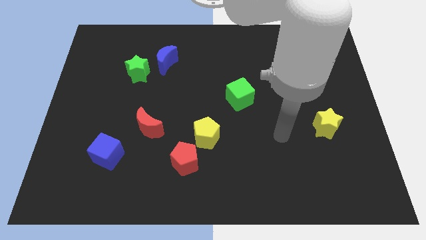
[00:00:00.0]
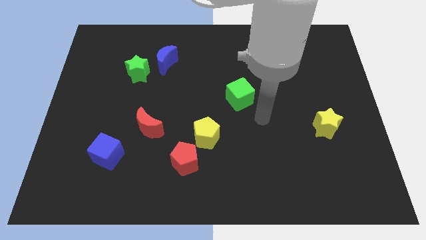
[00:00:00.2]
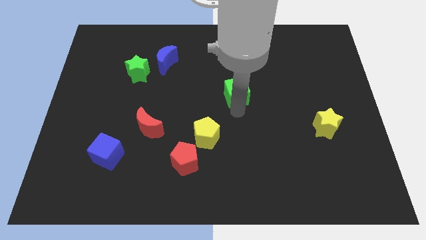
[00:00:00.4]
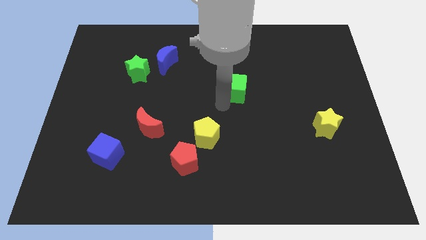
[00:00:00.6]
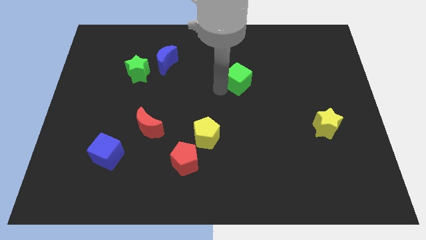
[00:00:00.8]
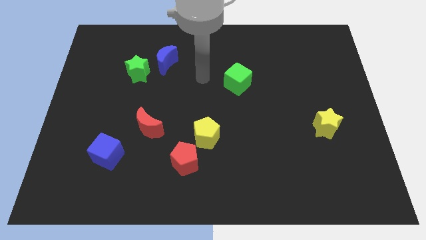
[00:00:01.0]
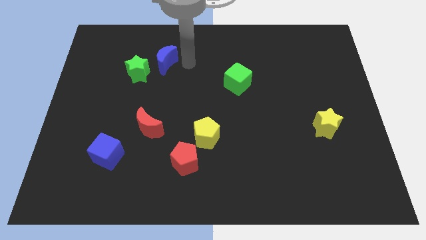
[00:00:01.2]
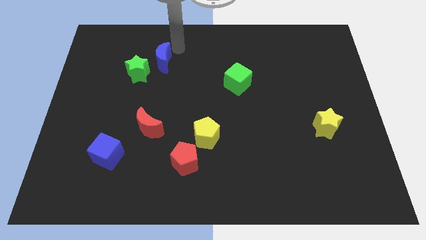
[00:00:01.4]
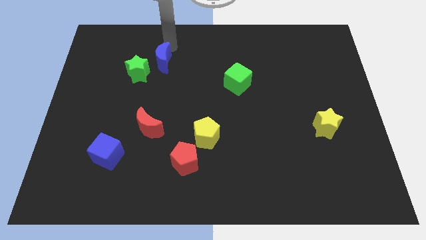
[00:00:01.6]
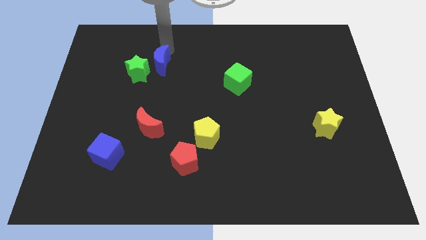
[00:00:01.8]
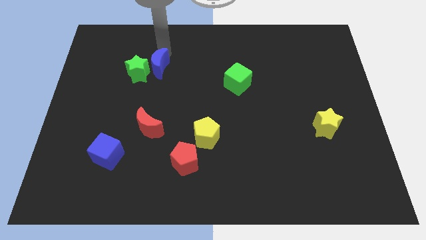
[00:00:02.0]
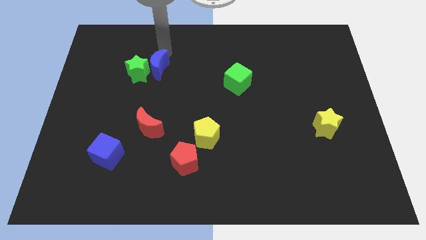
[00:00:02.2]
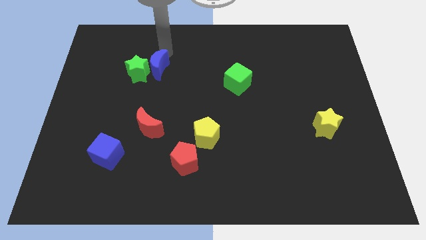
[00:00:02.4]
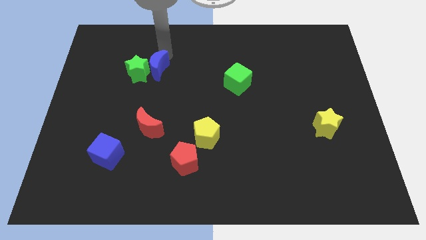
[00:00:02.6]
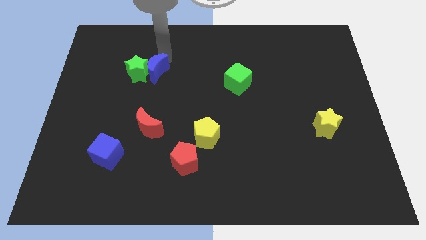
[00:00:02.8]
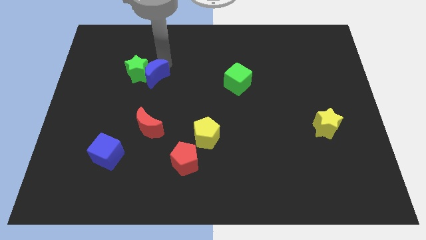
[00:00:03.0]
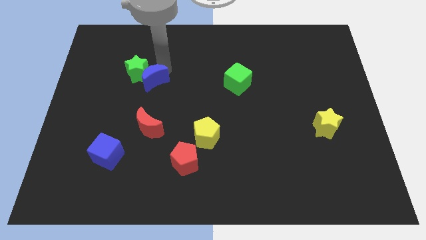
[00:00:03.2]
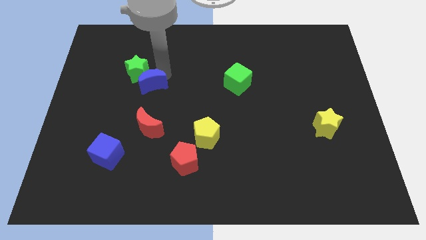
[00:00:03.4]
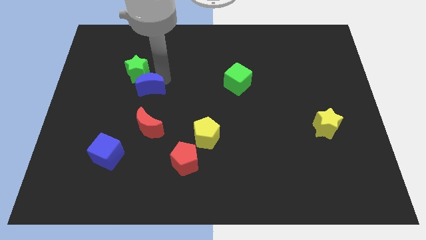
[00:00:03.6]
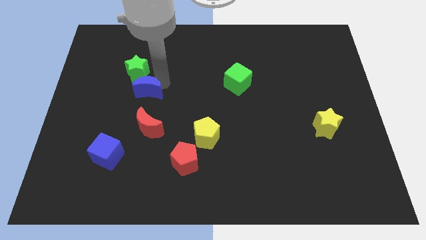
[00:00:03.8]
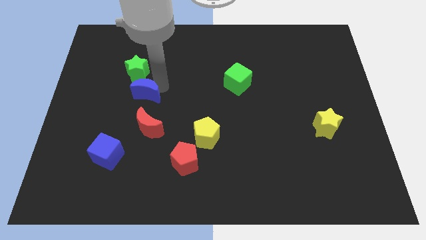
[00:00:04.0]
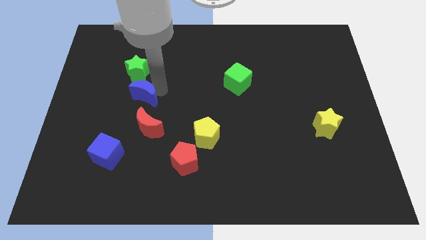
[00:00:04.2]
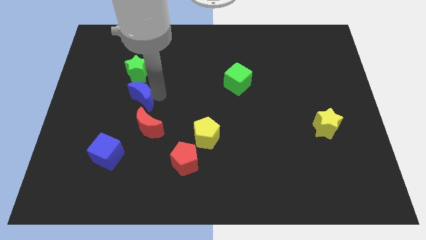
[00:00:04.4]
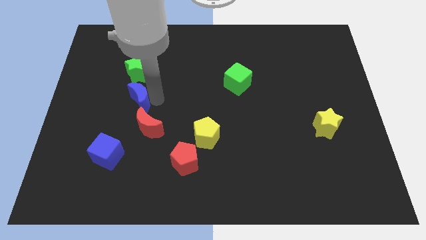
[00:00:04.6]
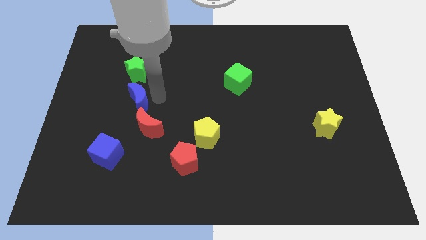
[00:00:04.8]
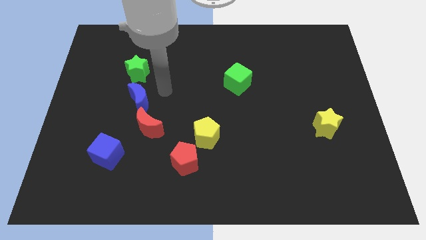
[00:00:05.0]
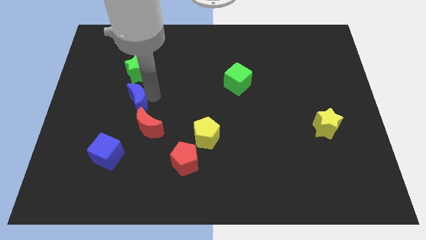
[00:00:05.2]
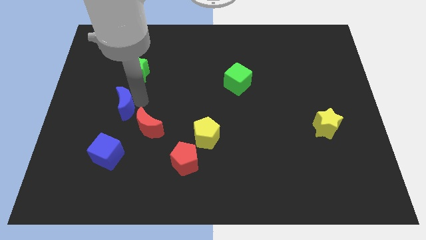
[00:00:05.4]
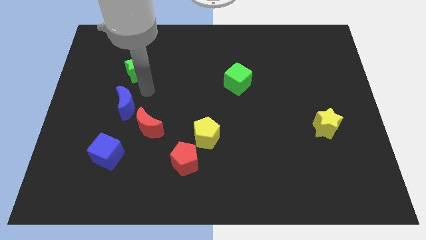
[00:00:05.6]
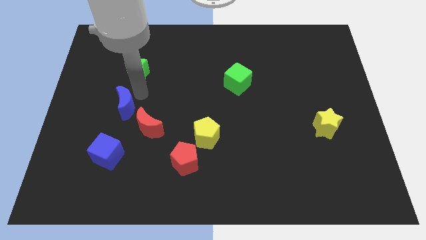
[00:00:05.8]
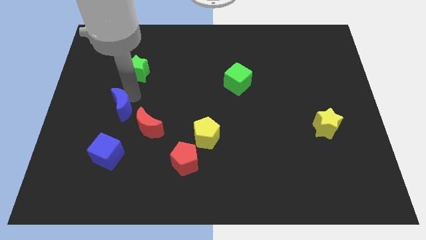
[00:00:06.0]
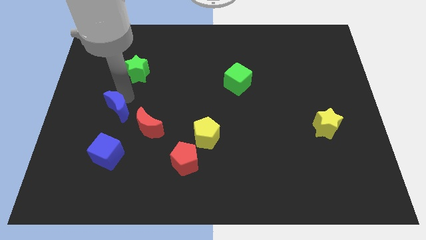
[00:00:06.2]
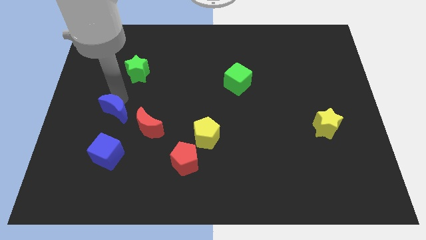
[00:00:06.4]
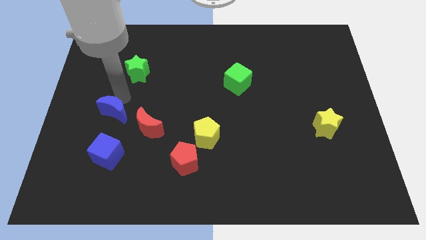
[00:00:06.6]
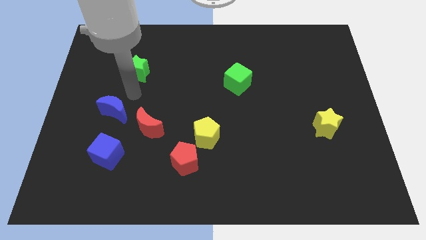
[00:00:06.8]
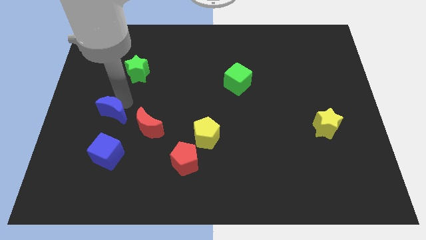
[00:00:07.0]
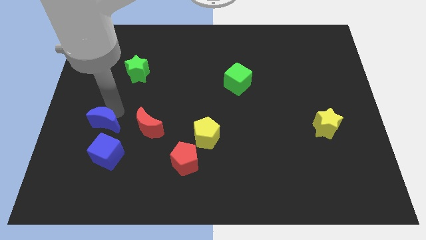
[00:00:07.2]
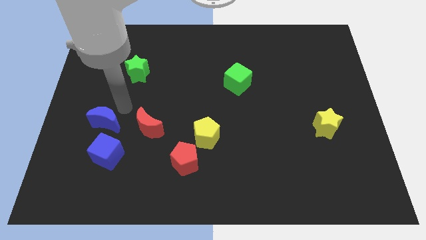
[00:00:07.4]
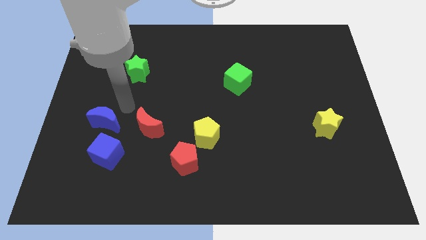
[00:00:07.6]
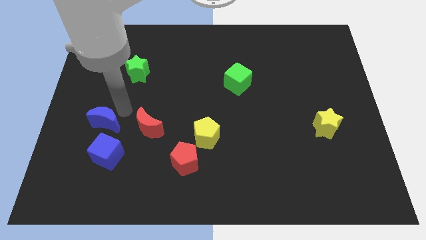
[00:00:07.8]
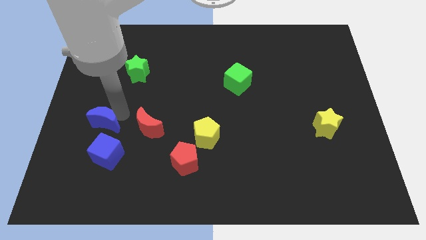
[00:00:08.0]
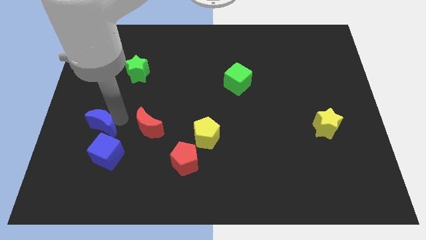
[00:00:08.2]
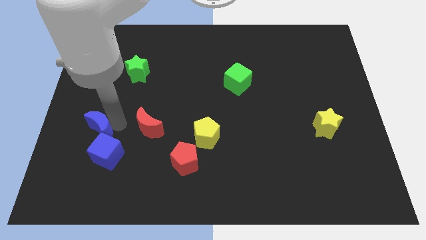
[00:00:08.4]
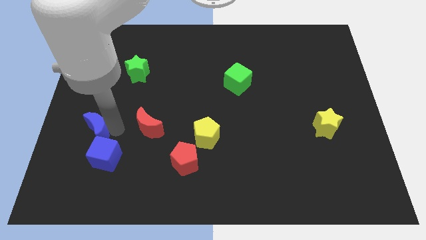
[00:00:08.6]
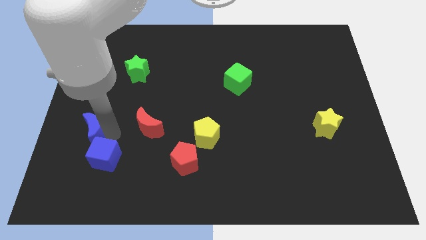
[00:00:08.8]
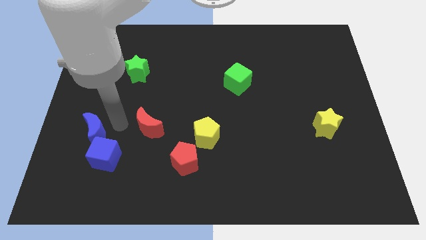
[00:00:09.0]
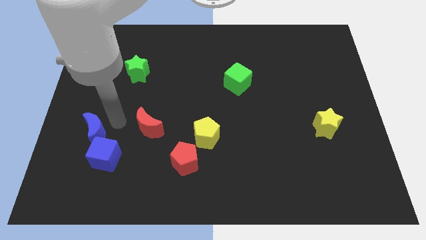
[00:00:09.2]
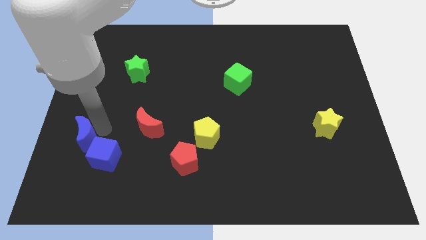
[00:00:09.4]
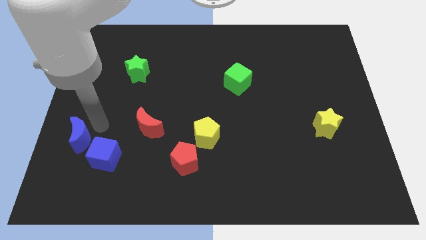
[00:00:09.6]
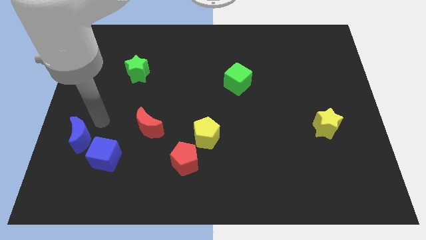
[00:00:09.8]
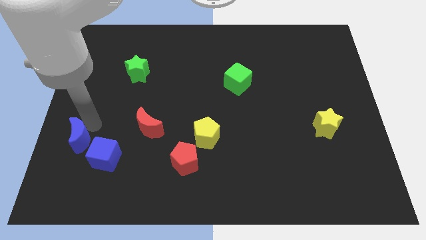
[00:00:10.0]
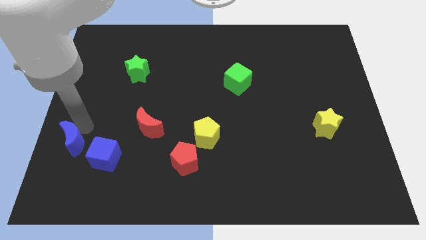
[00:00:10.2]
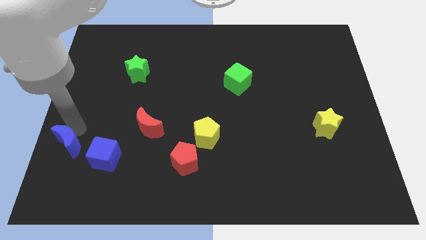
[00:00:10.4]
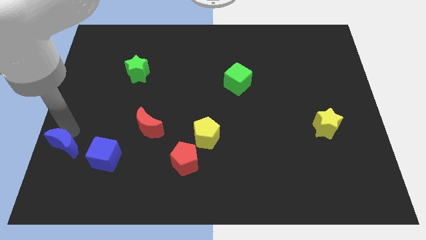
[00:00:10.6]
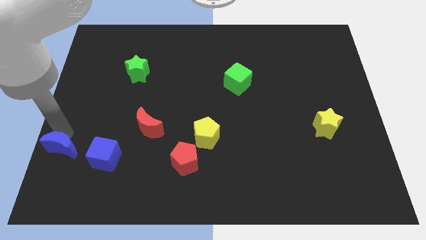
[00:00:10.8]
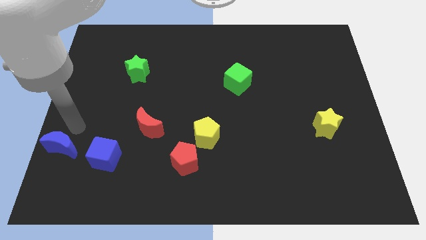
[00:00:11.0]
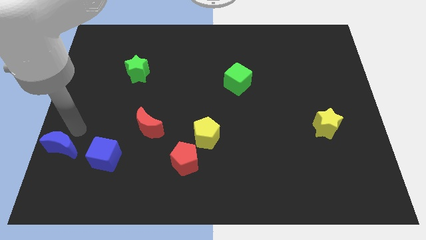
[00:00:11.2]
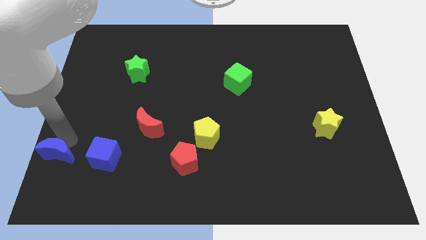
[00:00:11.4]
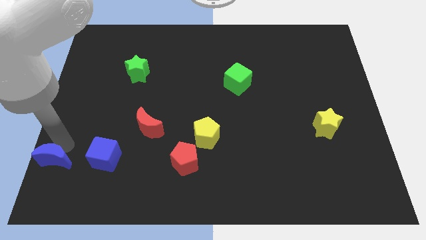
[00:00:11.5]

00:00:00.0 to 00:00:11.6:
put the blue moon to the bottom left corner

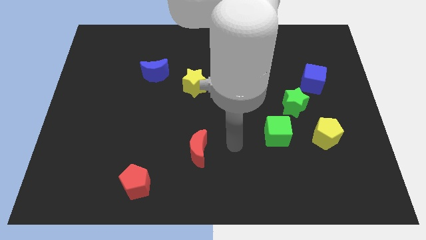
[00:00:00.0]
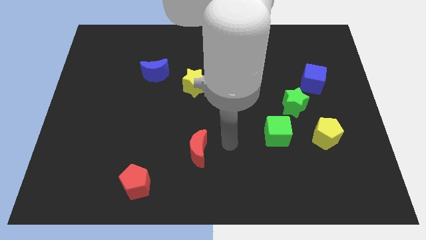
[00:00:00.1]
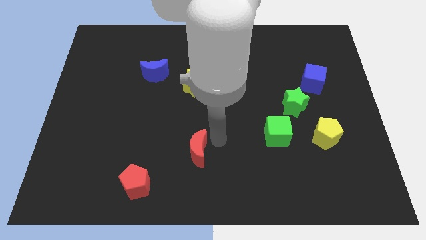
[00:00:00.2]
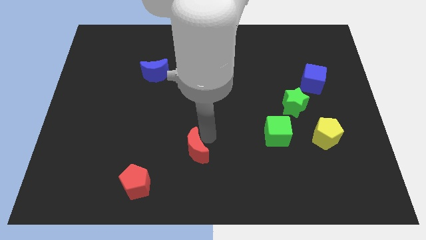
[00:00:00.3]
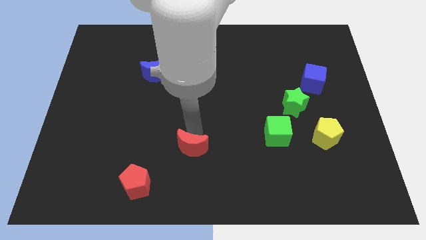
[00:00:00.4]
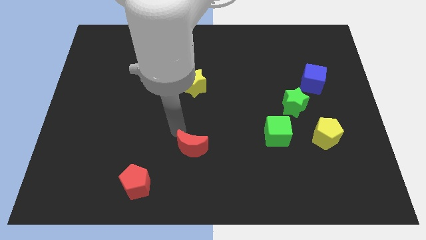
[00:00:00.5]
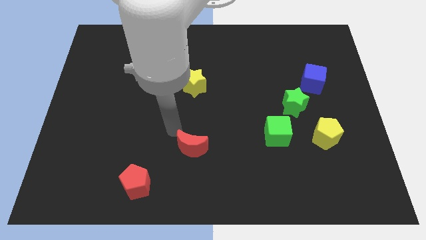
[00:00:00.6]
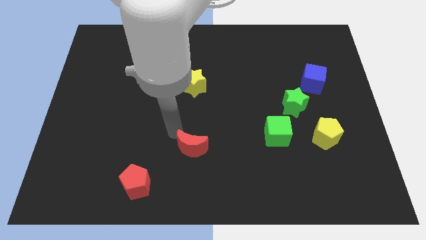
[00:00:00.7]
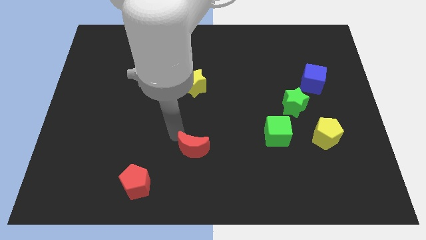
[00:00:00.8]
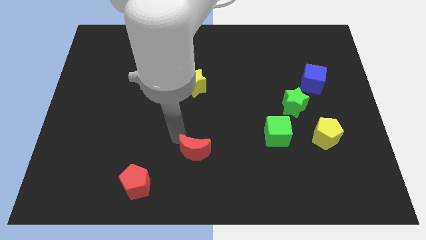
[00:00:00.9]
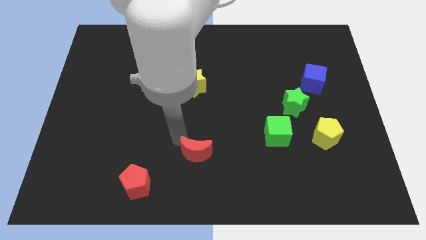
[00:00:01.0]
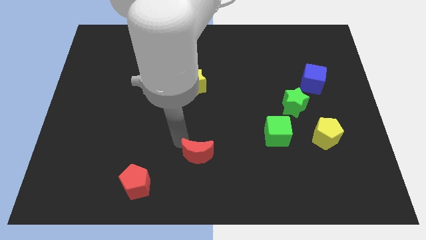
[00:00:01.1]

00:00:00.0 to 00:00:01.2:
put the red moon to the bottom
